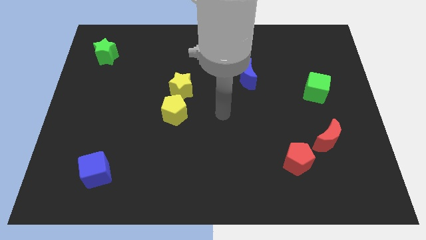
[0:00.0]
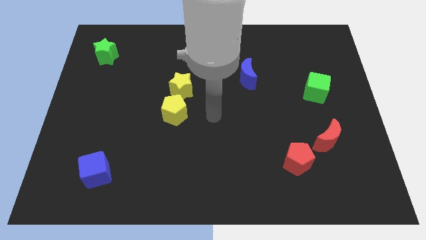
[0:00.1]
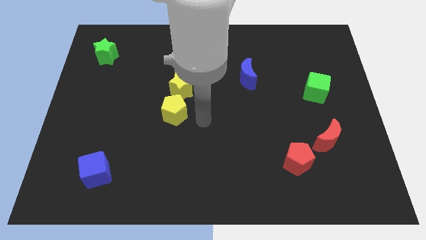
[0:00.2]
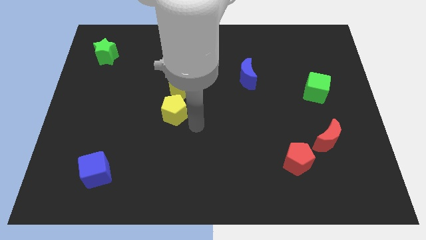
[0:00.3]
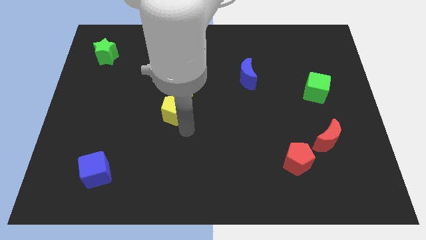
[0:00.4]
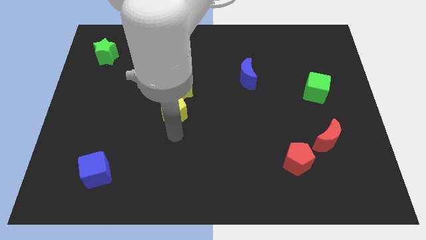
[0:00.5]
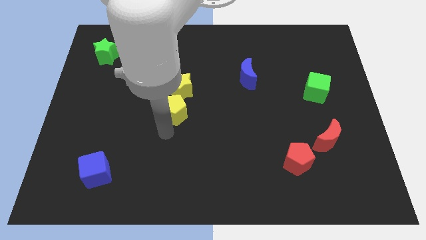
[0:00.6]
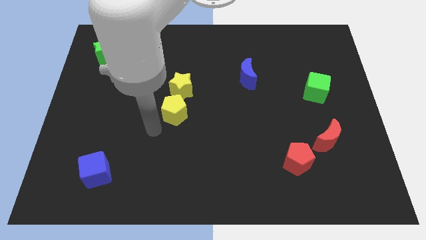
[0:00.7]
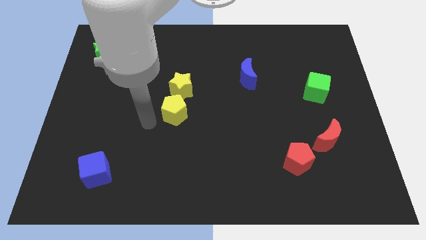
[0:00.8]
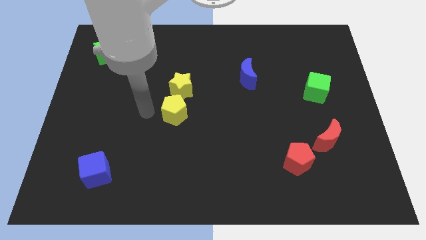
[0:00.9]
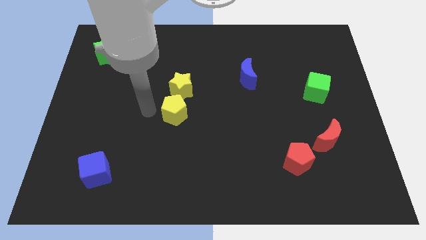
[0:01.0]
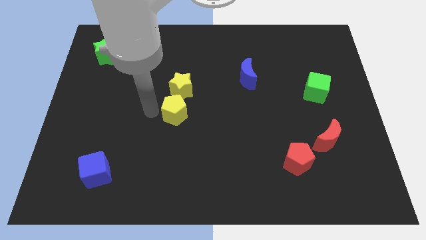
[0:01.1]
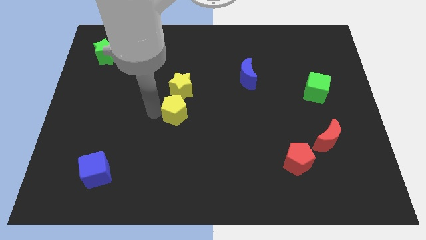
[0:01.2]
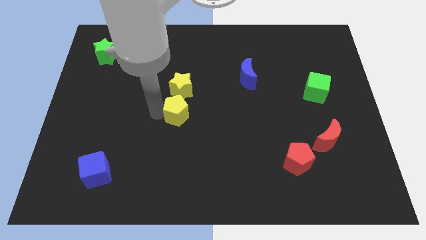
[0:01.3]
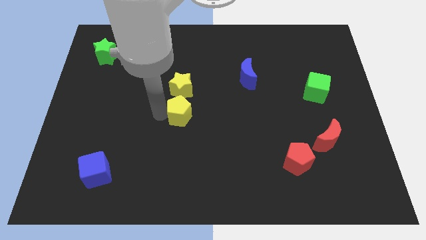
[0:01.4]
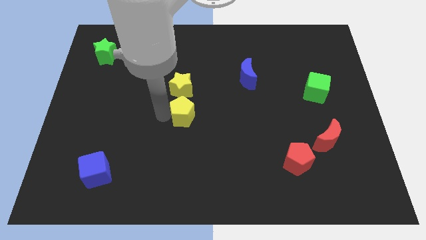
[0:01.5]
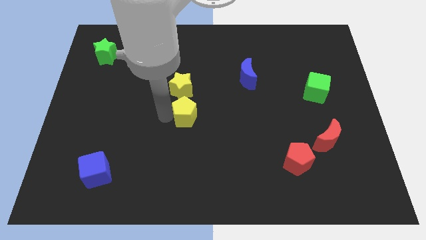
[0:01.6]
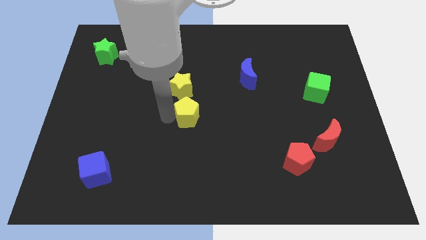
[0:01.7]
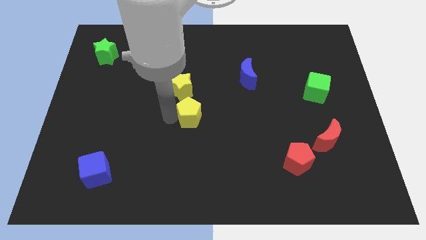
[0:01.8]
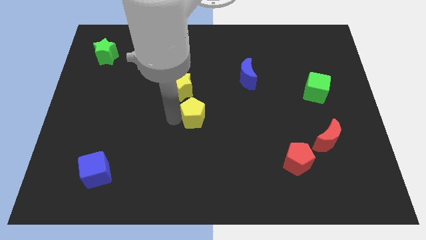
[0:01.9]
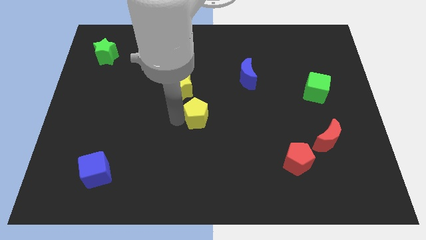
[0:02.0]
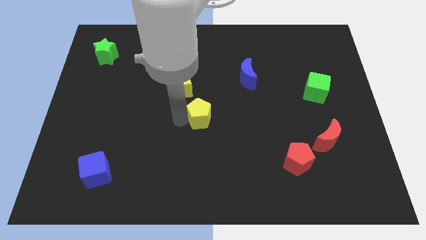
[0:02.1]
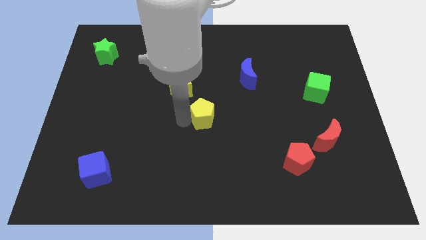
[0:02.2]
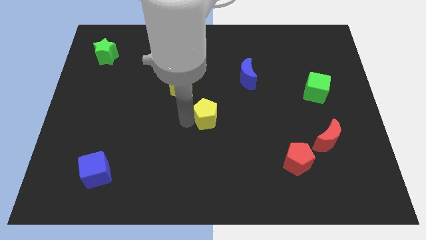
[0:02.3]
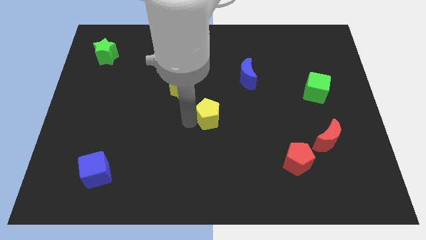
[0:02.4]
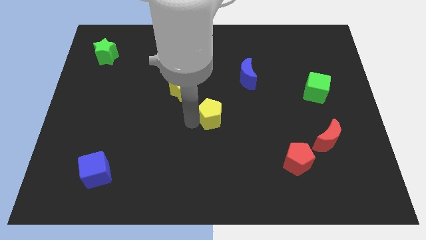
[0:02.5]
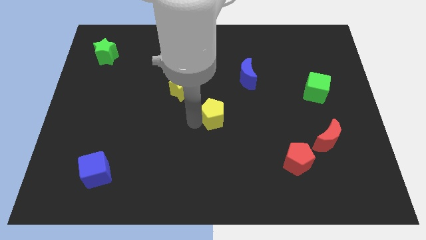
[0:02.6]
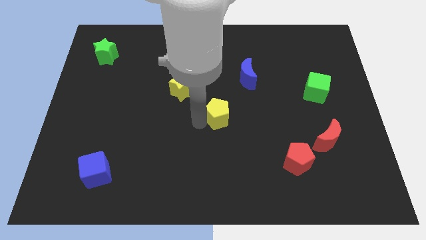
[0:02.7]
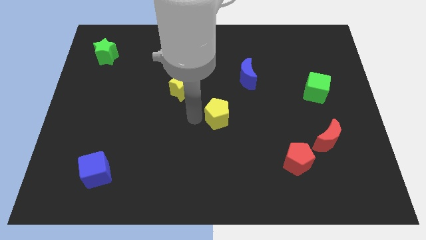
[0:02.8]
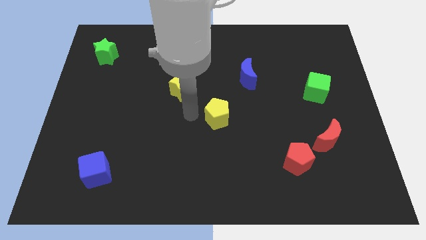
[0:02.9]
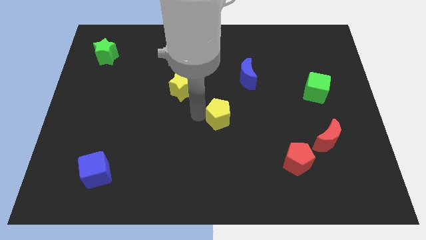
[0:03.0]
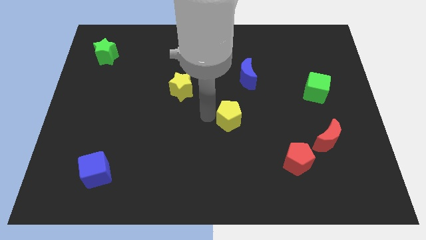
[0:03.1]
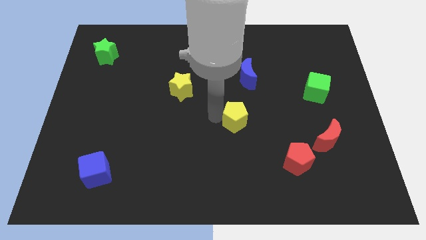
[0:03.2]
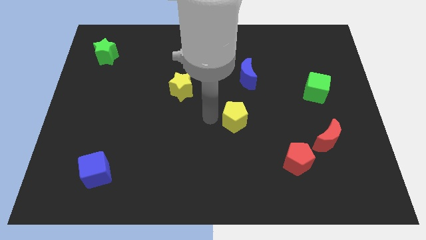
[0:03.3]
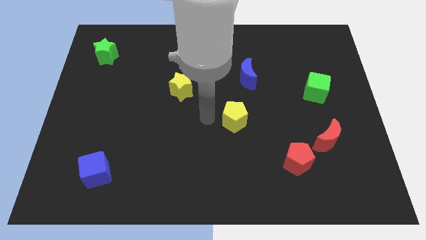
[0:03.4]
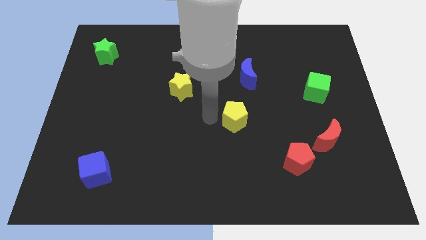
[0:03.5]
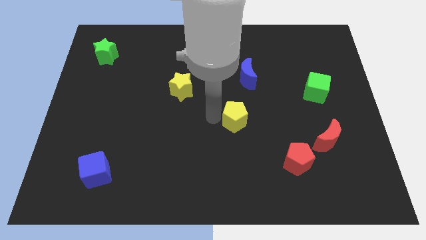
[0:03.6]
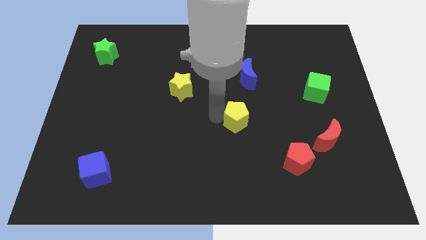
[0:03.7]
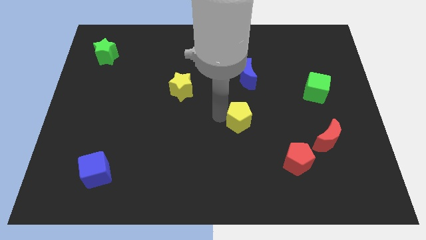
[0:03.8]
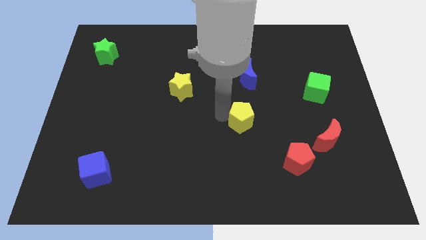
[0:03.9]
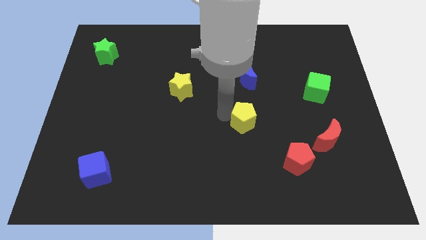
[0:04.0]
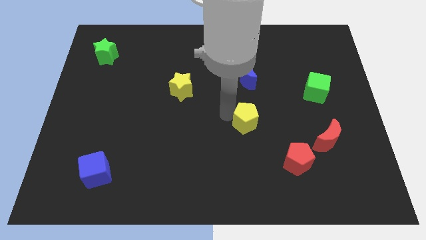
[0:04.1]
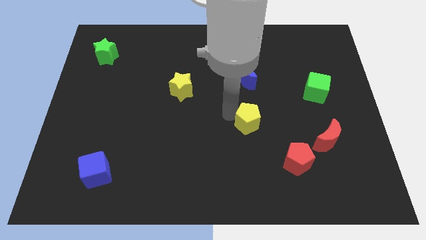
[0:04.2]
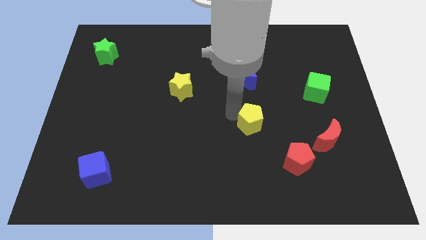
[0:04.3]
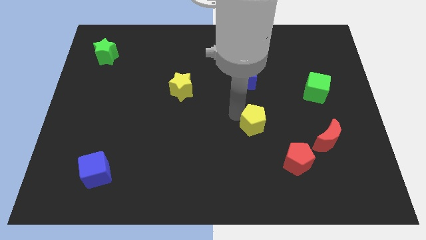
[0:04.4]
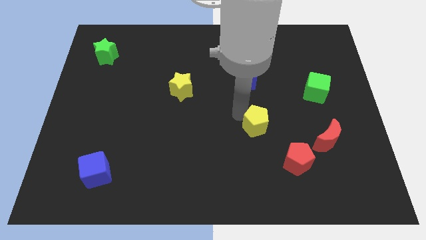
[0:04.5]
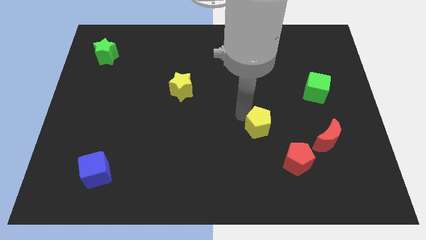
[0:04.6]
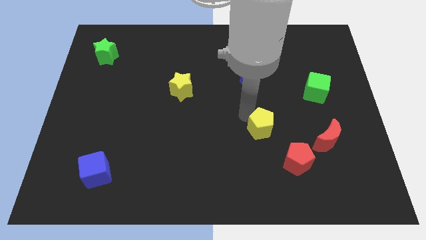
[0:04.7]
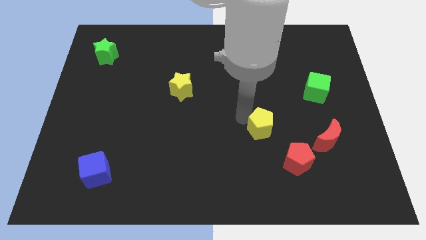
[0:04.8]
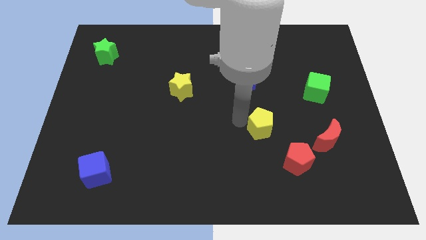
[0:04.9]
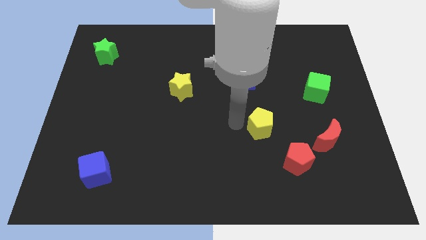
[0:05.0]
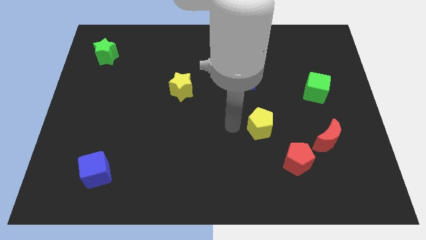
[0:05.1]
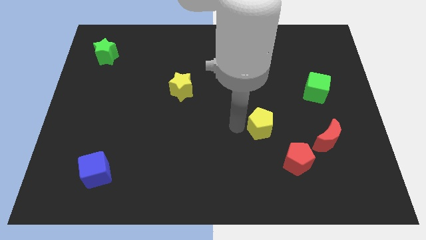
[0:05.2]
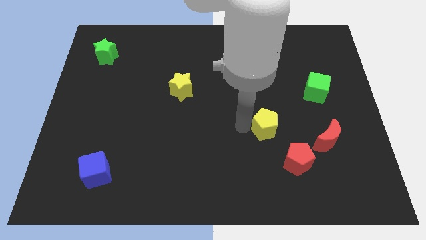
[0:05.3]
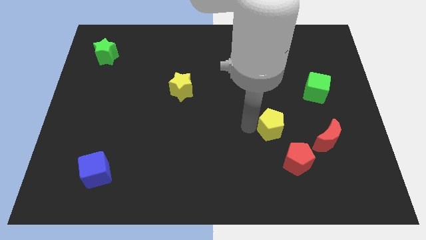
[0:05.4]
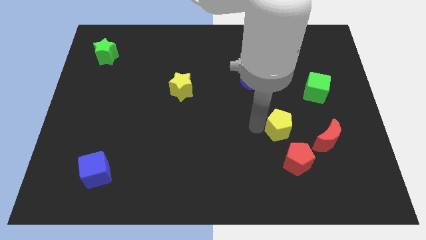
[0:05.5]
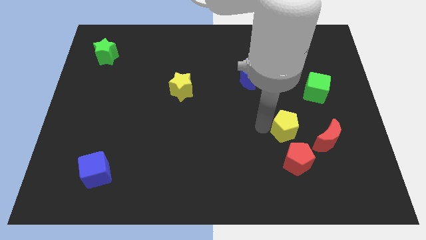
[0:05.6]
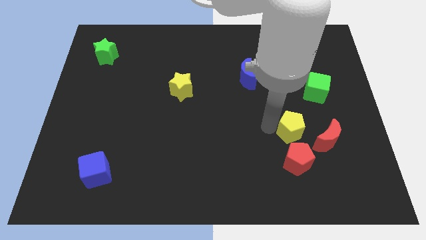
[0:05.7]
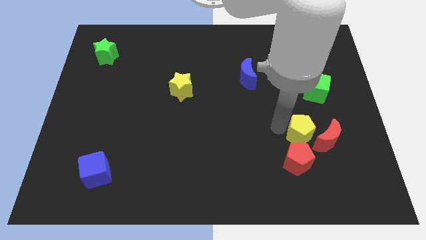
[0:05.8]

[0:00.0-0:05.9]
move the yellow pentagon towards the red moon

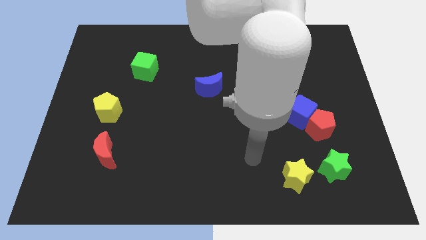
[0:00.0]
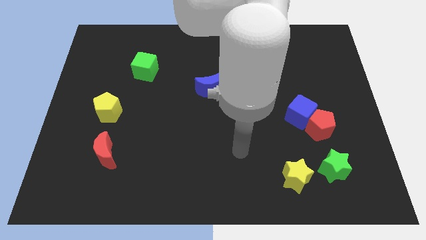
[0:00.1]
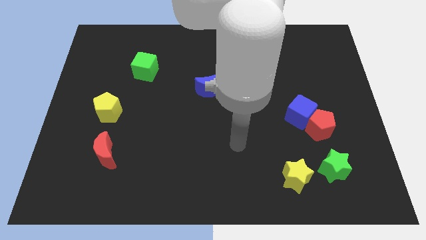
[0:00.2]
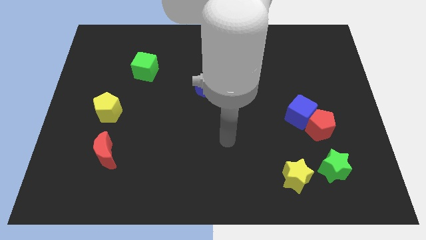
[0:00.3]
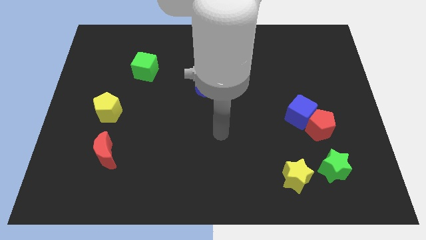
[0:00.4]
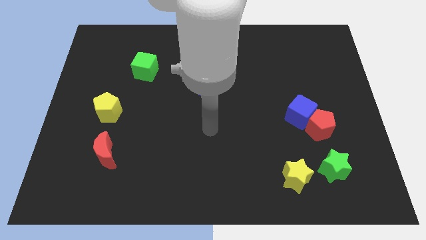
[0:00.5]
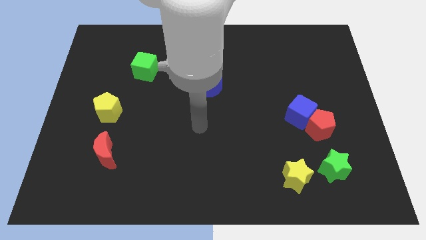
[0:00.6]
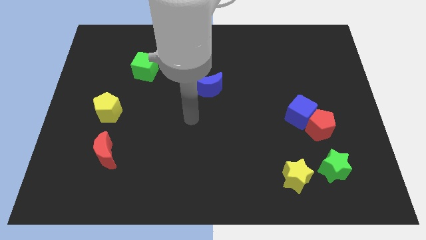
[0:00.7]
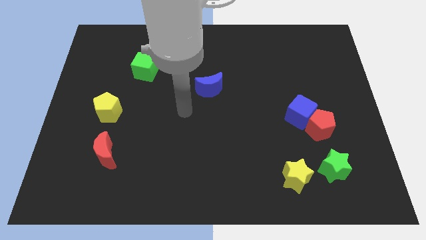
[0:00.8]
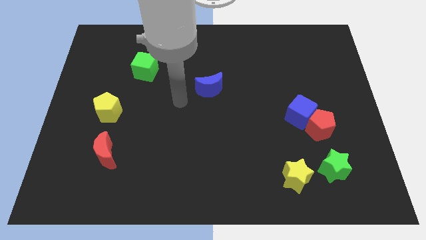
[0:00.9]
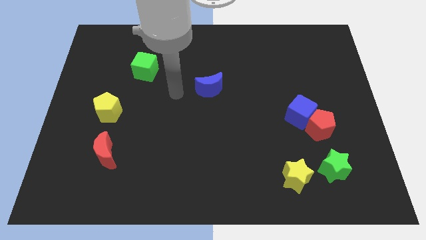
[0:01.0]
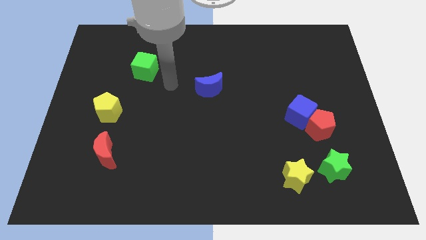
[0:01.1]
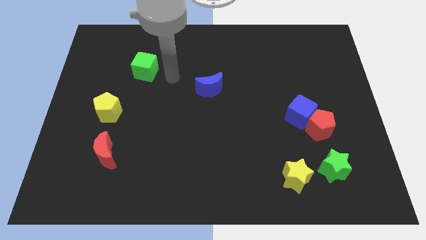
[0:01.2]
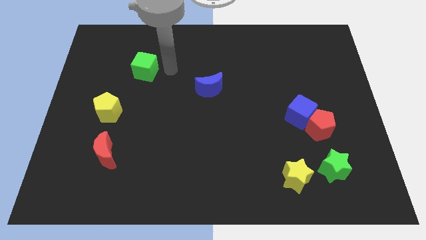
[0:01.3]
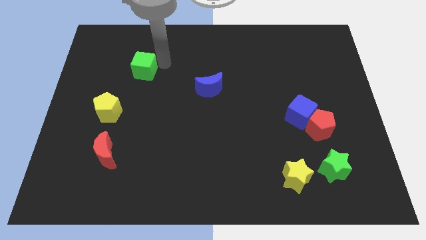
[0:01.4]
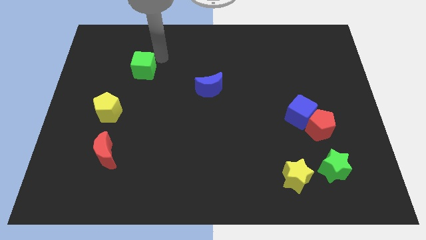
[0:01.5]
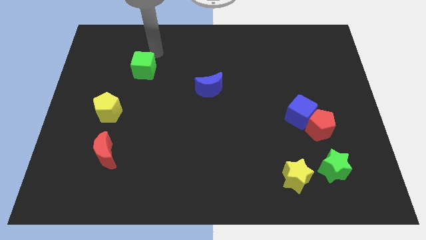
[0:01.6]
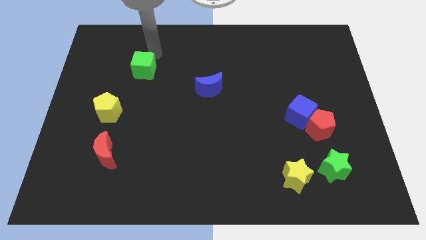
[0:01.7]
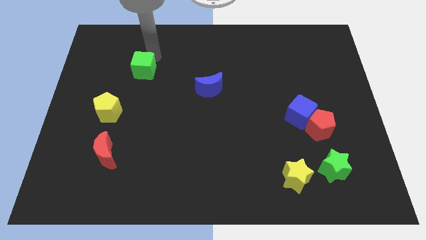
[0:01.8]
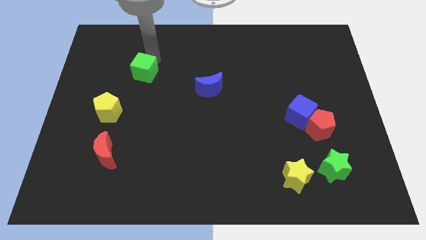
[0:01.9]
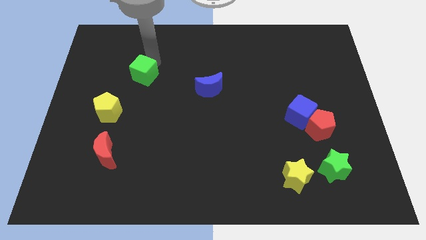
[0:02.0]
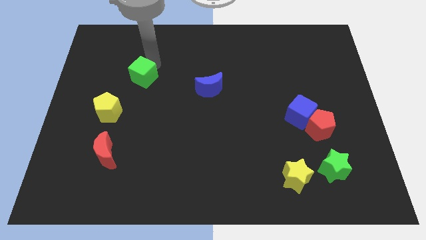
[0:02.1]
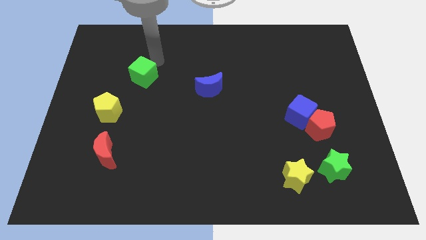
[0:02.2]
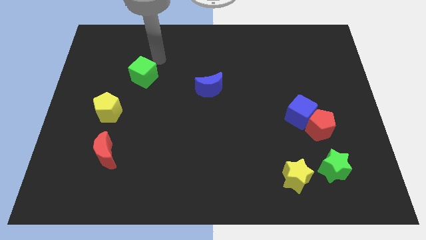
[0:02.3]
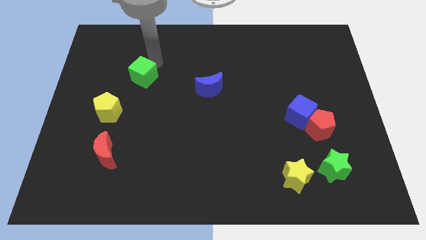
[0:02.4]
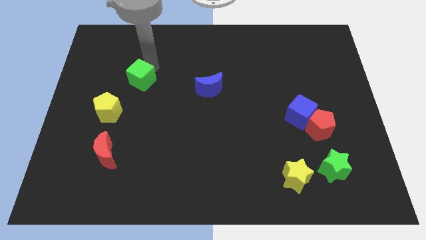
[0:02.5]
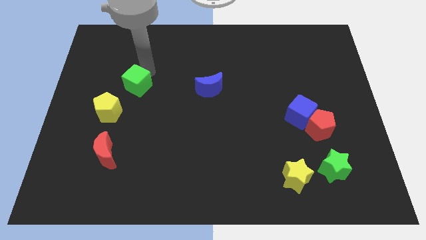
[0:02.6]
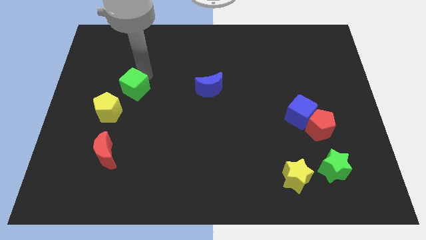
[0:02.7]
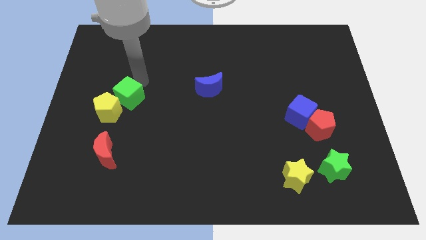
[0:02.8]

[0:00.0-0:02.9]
slide the green cube to the yellow pentagon
